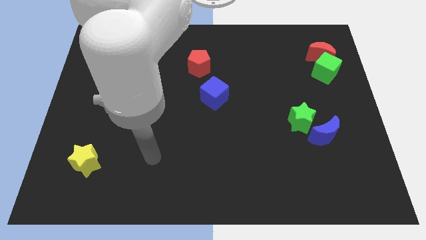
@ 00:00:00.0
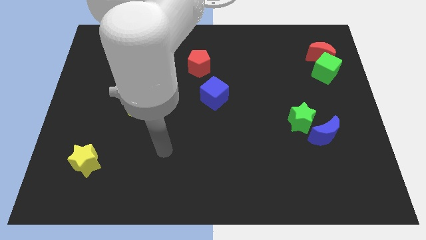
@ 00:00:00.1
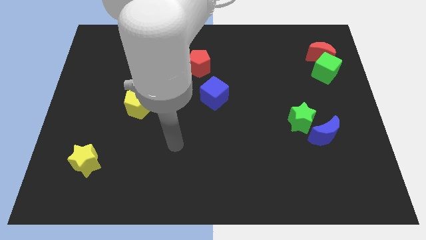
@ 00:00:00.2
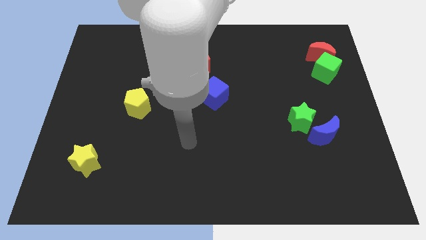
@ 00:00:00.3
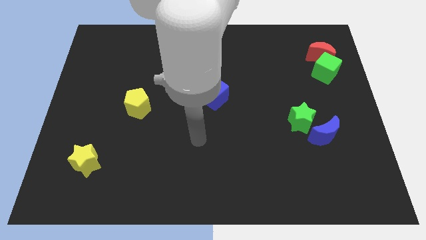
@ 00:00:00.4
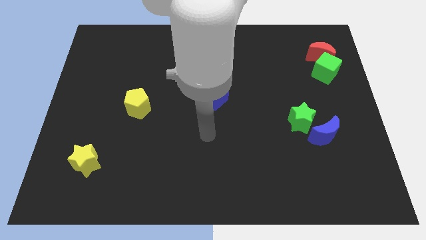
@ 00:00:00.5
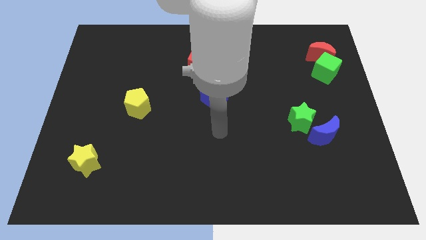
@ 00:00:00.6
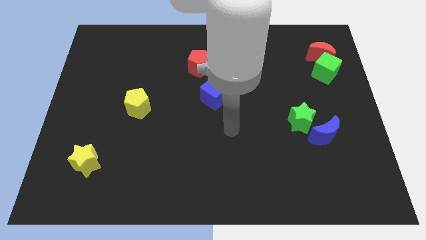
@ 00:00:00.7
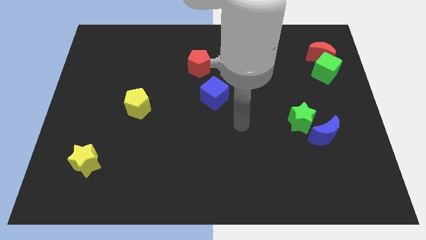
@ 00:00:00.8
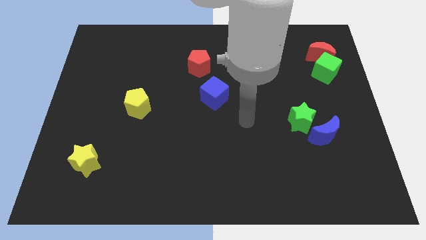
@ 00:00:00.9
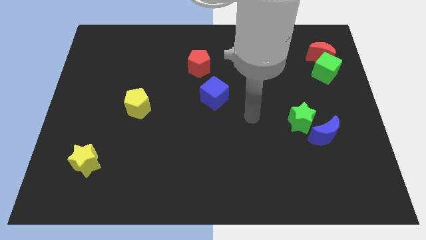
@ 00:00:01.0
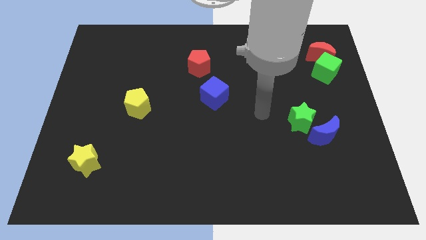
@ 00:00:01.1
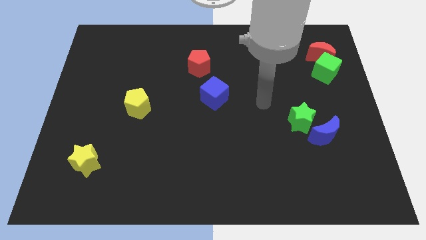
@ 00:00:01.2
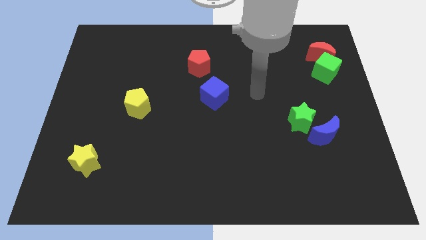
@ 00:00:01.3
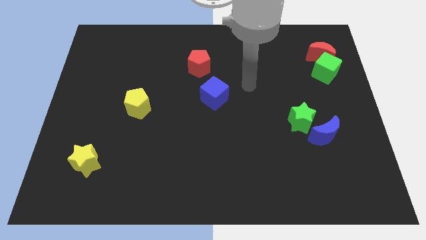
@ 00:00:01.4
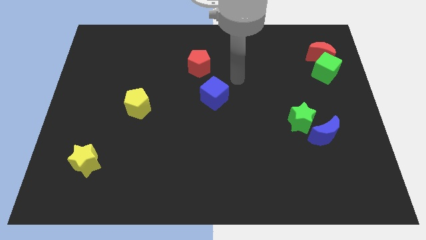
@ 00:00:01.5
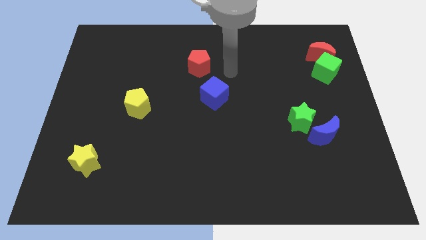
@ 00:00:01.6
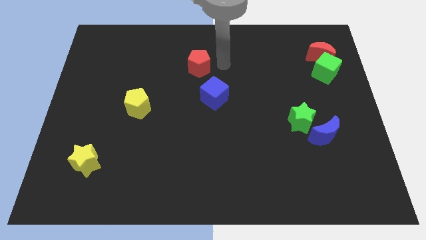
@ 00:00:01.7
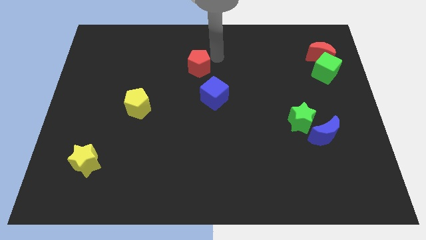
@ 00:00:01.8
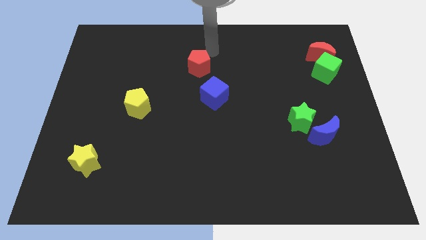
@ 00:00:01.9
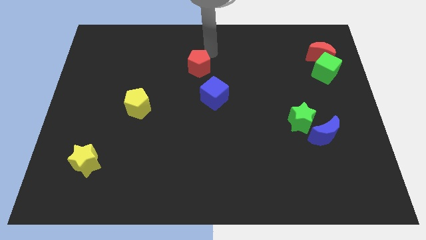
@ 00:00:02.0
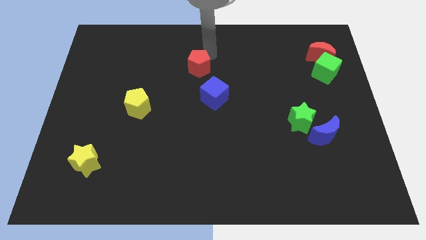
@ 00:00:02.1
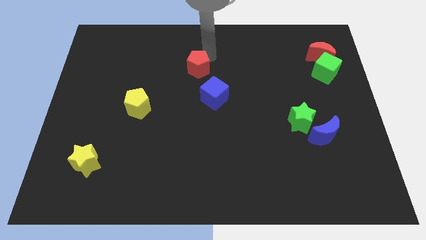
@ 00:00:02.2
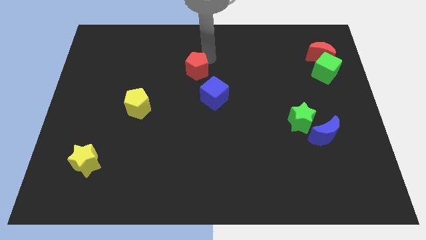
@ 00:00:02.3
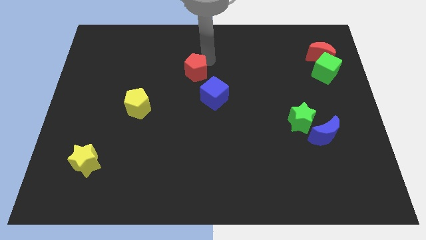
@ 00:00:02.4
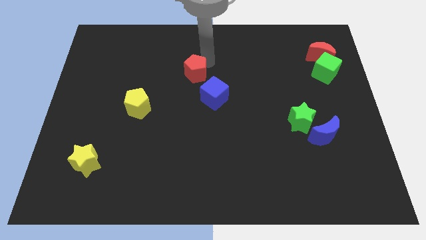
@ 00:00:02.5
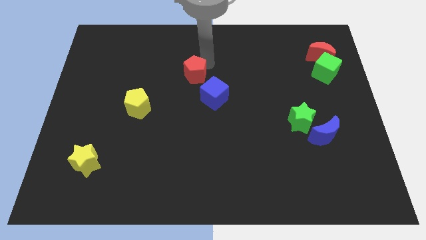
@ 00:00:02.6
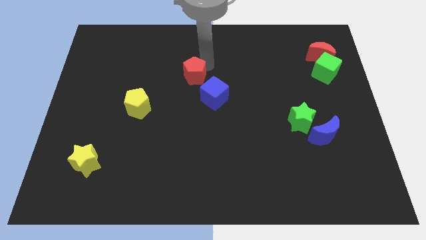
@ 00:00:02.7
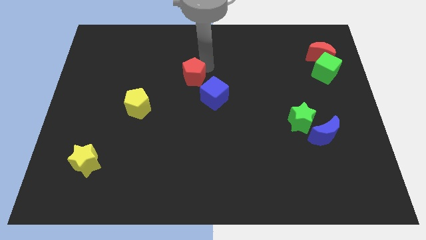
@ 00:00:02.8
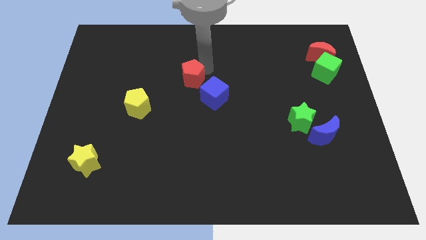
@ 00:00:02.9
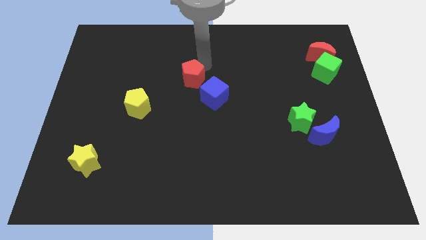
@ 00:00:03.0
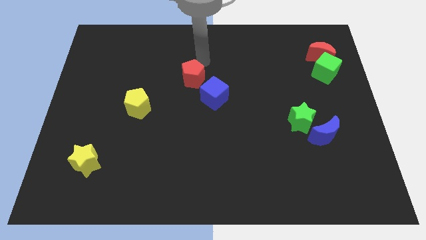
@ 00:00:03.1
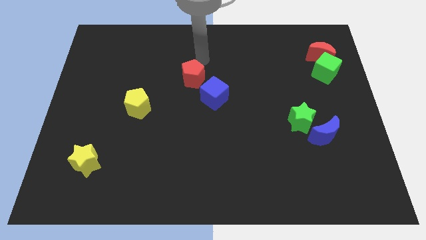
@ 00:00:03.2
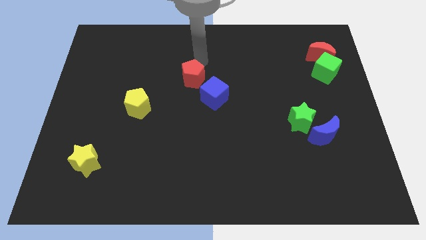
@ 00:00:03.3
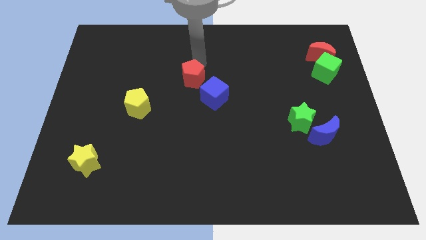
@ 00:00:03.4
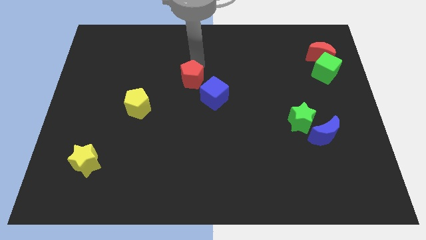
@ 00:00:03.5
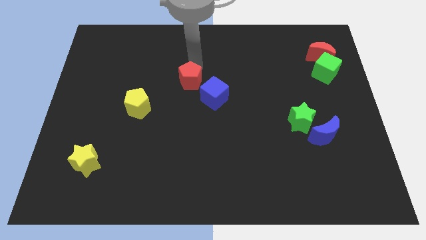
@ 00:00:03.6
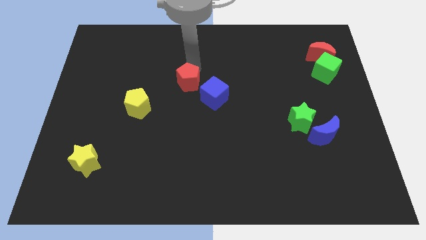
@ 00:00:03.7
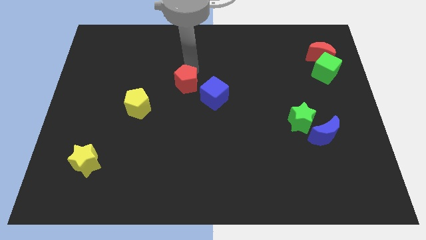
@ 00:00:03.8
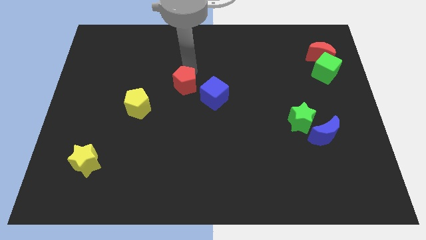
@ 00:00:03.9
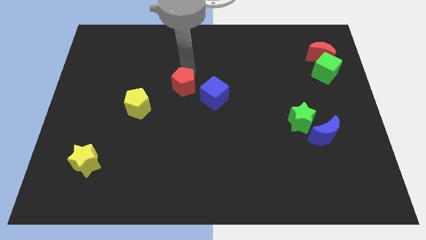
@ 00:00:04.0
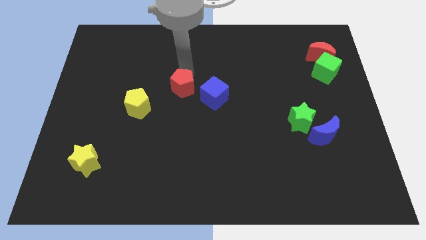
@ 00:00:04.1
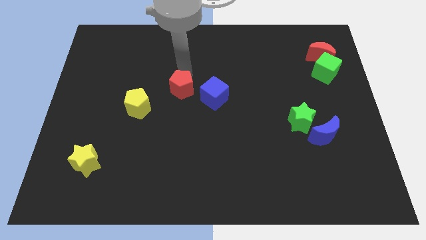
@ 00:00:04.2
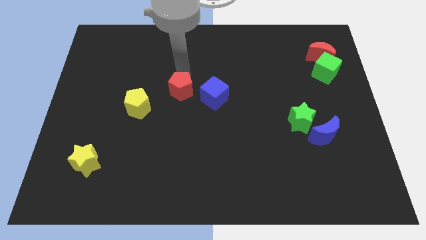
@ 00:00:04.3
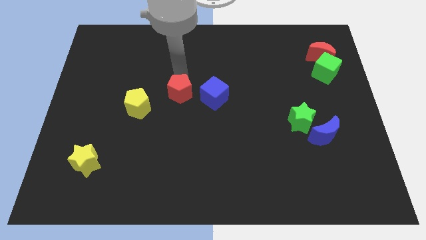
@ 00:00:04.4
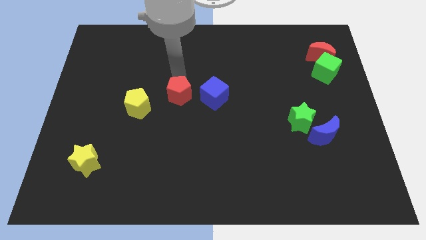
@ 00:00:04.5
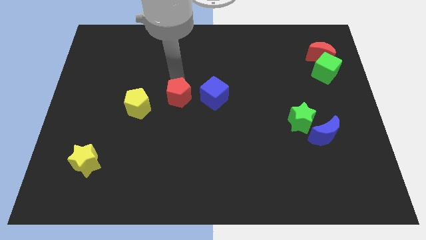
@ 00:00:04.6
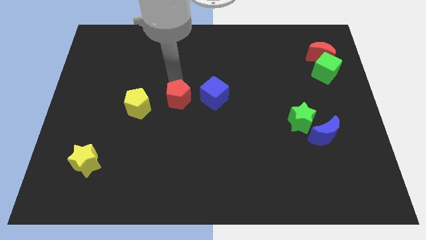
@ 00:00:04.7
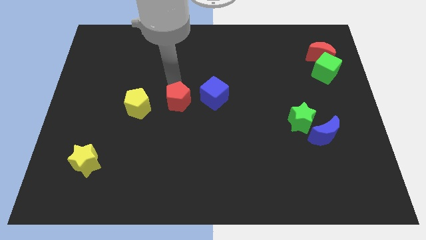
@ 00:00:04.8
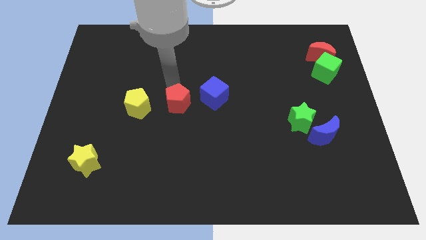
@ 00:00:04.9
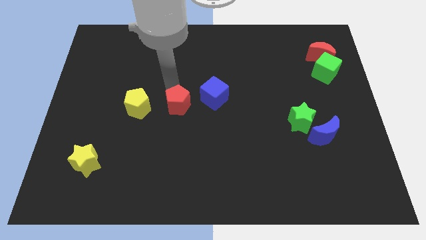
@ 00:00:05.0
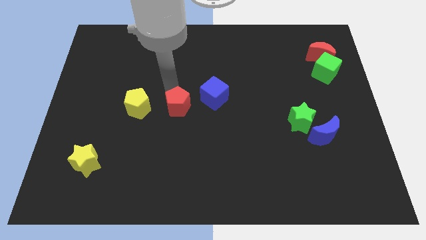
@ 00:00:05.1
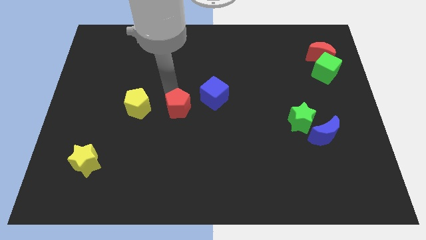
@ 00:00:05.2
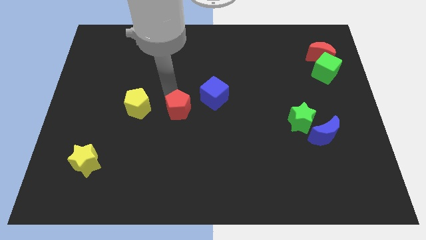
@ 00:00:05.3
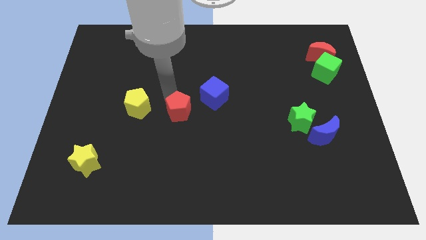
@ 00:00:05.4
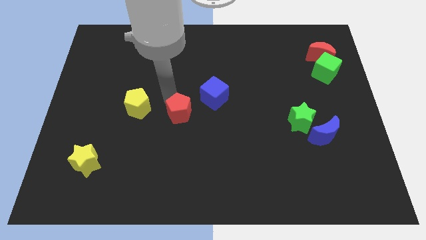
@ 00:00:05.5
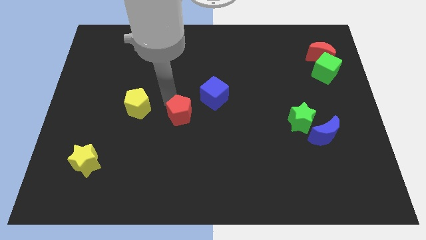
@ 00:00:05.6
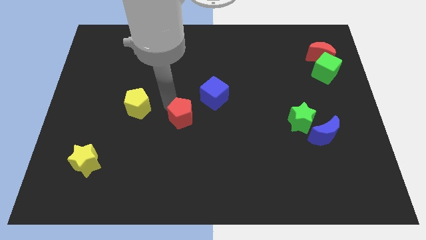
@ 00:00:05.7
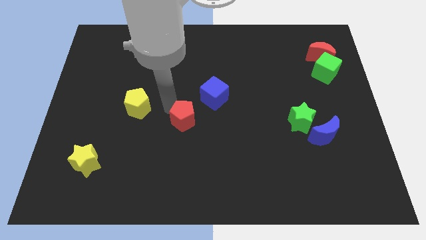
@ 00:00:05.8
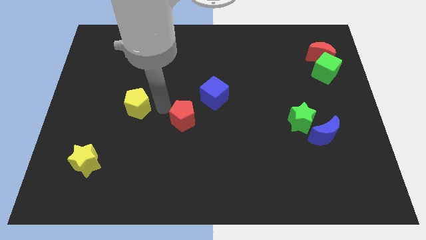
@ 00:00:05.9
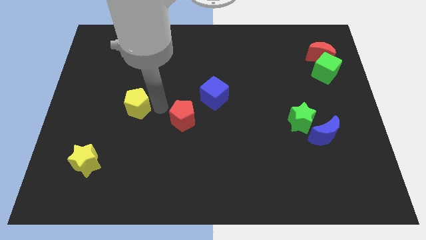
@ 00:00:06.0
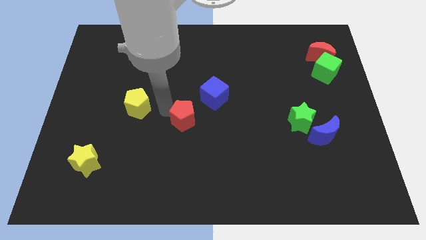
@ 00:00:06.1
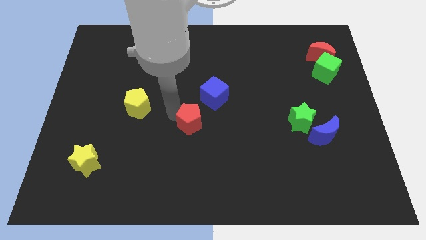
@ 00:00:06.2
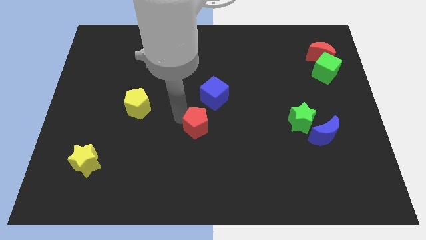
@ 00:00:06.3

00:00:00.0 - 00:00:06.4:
slide the red pentagon to the bottom of the blue cube

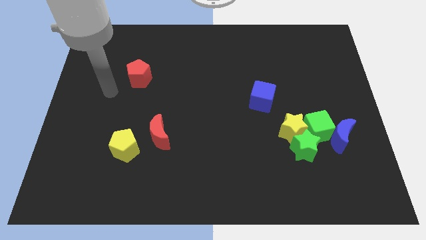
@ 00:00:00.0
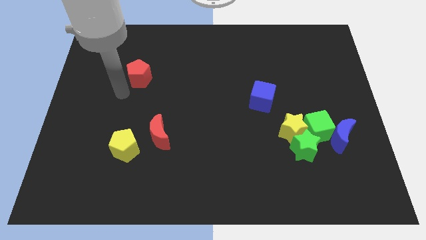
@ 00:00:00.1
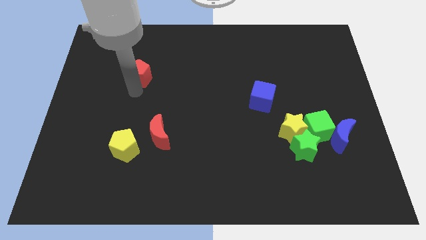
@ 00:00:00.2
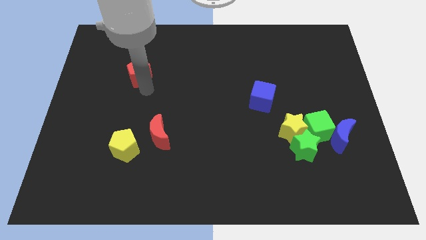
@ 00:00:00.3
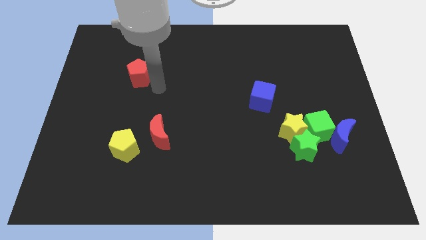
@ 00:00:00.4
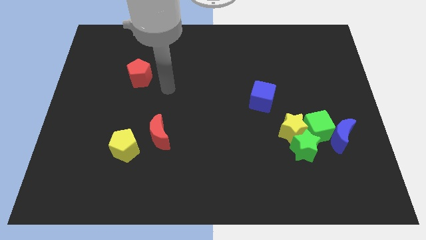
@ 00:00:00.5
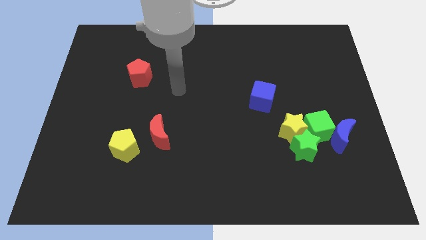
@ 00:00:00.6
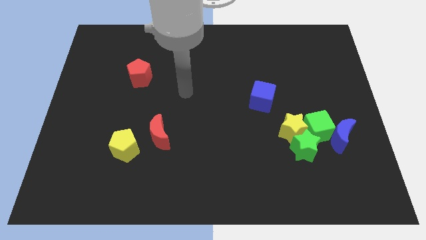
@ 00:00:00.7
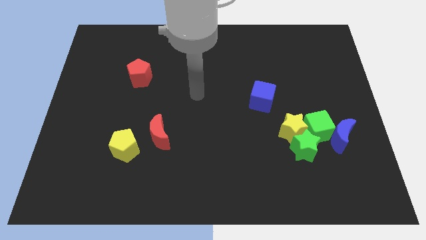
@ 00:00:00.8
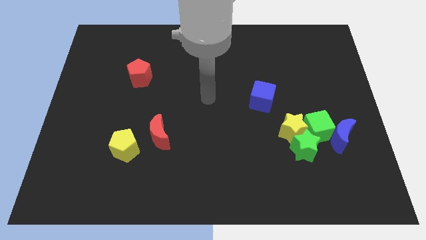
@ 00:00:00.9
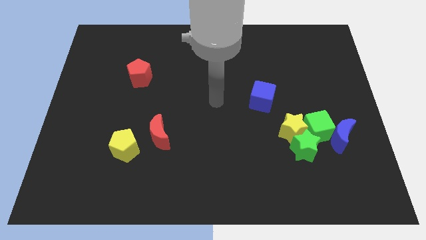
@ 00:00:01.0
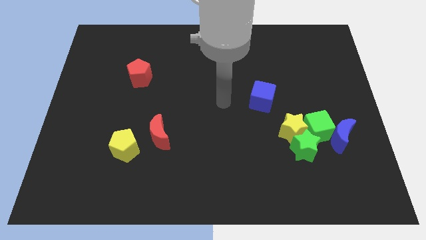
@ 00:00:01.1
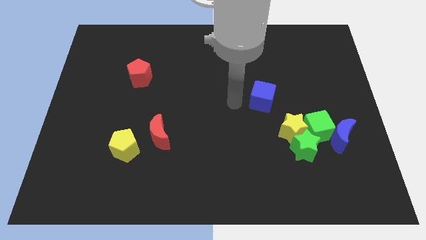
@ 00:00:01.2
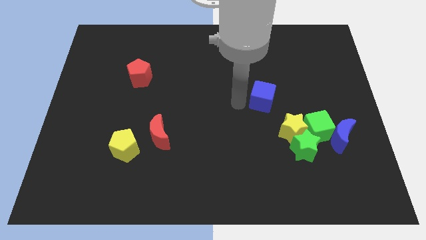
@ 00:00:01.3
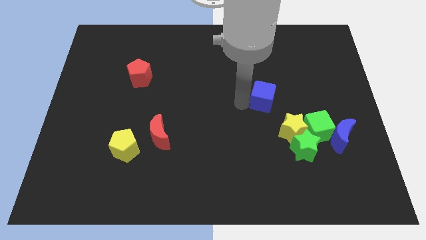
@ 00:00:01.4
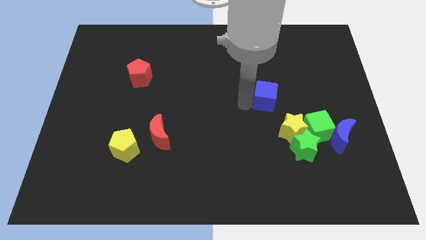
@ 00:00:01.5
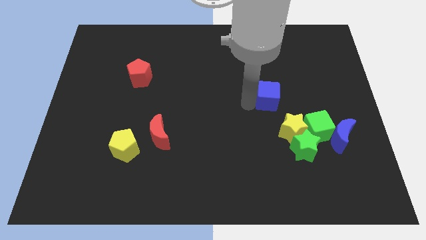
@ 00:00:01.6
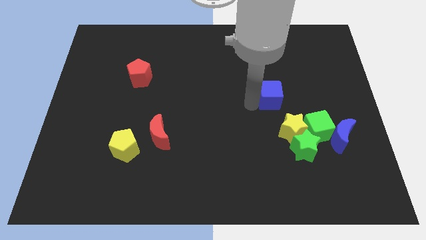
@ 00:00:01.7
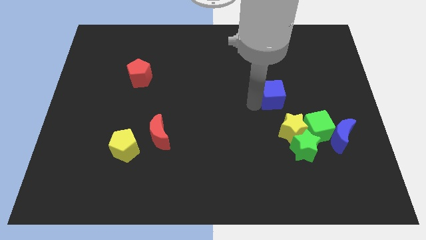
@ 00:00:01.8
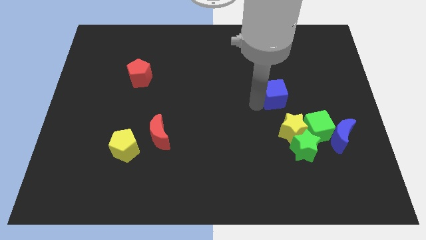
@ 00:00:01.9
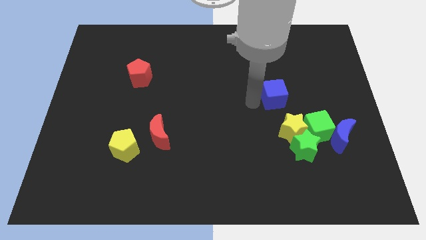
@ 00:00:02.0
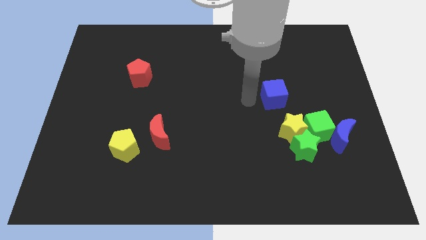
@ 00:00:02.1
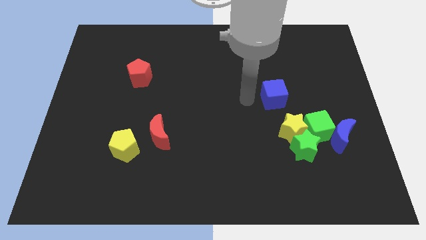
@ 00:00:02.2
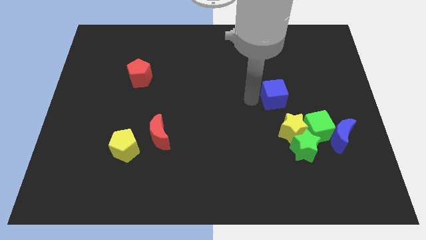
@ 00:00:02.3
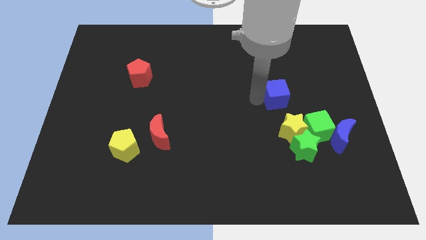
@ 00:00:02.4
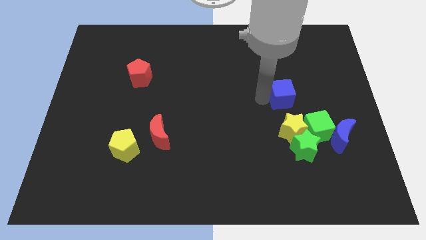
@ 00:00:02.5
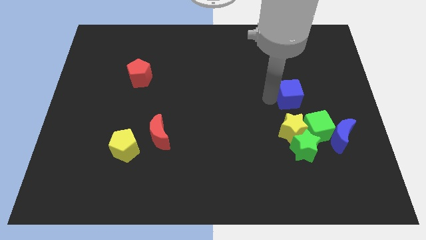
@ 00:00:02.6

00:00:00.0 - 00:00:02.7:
push the blue cube above the green cube
